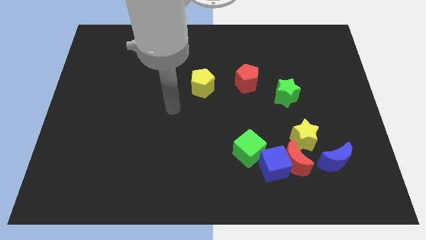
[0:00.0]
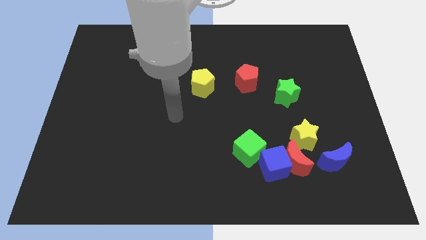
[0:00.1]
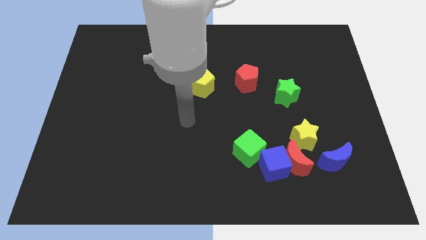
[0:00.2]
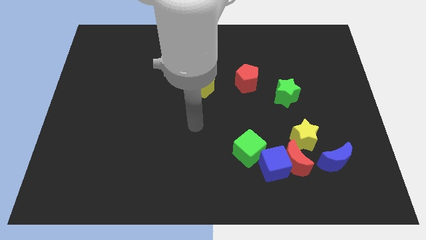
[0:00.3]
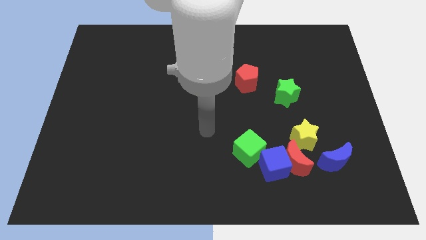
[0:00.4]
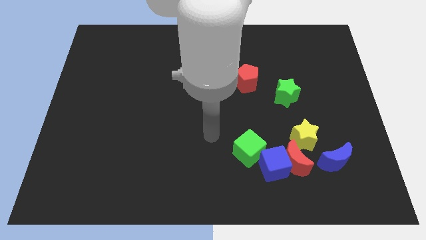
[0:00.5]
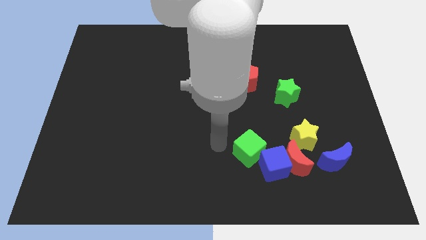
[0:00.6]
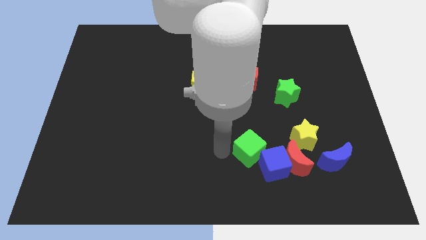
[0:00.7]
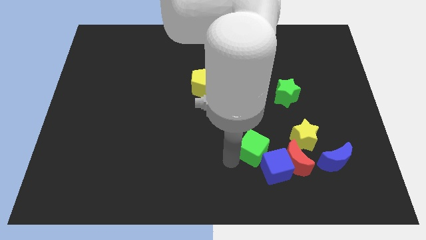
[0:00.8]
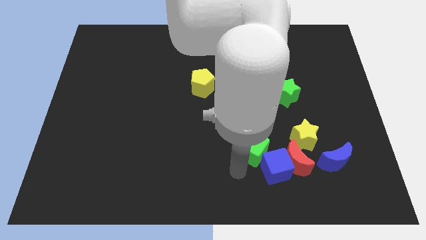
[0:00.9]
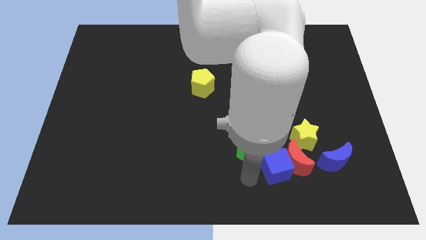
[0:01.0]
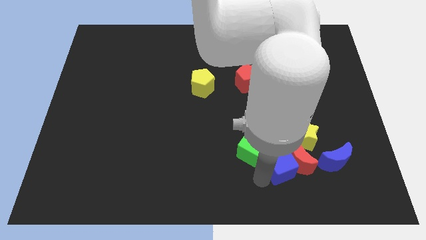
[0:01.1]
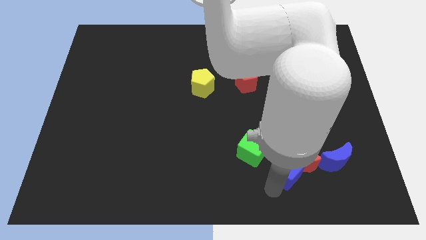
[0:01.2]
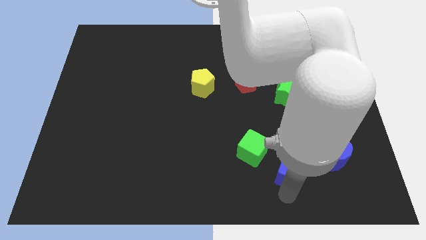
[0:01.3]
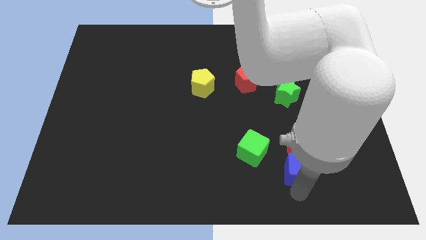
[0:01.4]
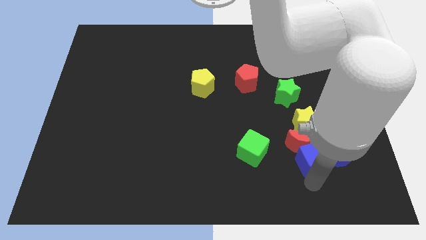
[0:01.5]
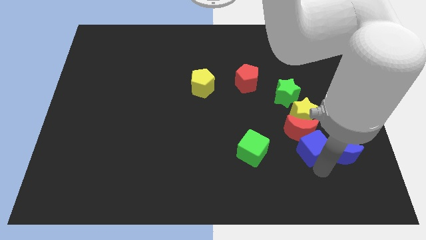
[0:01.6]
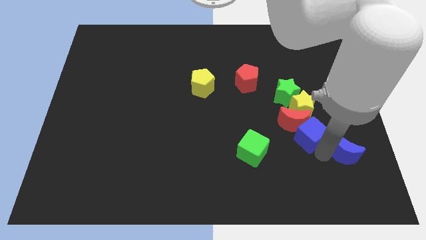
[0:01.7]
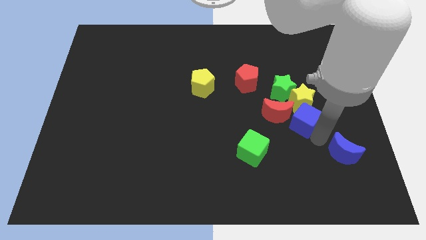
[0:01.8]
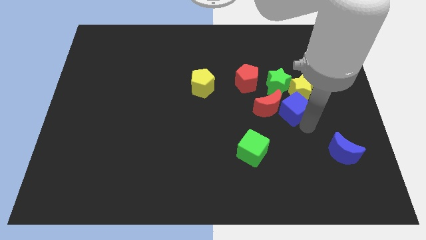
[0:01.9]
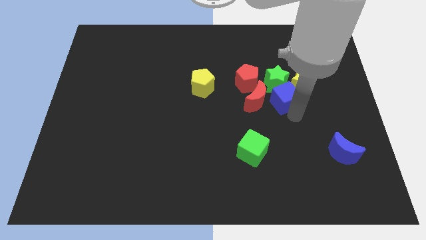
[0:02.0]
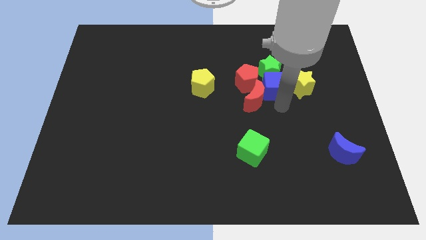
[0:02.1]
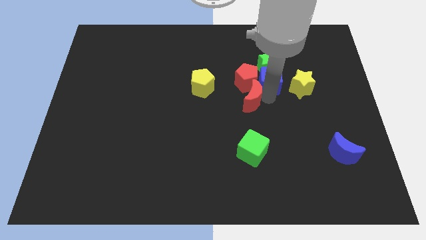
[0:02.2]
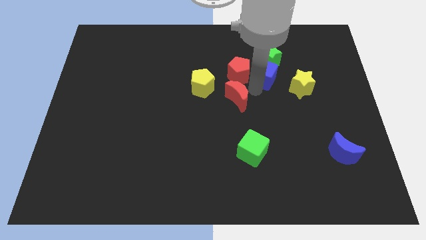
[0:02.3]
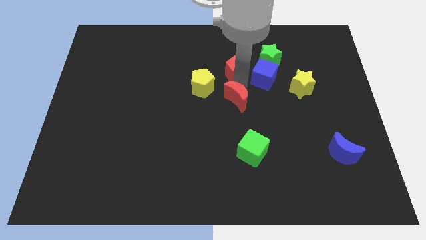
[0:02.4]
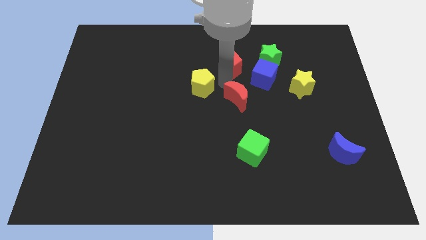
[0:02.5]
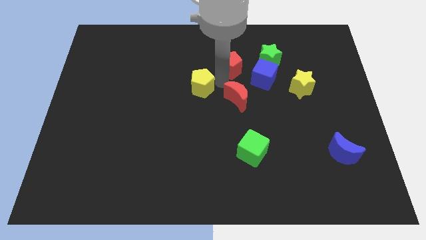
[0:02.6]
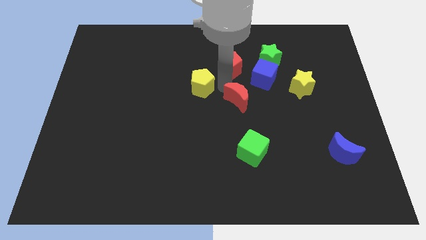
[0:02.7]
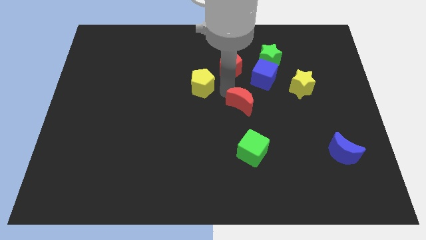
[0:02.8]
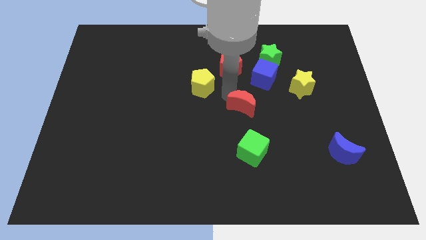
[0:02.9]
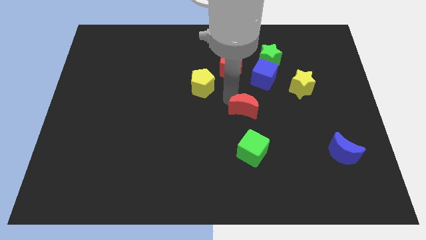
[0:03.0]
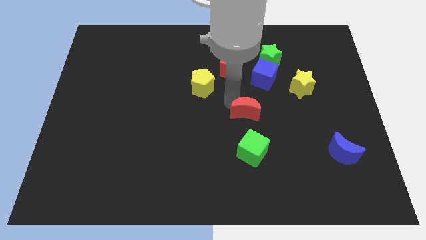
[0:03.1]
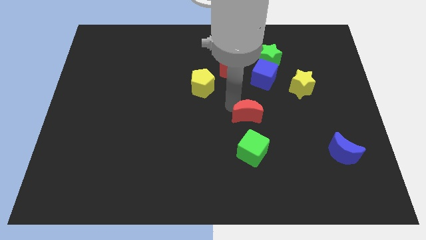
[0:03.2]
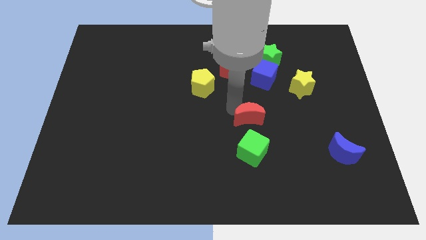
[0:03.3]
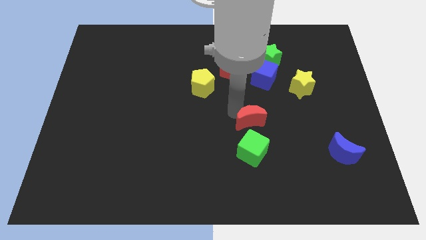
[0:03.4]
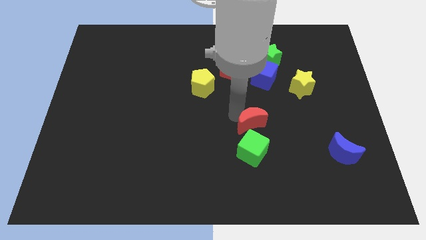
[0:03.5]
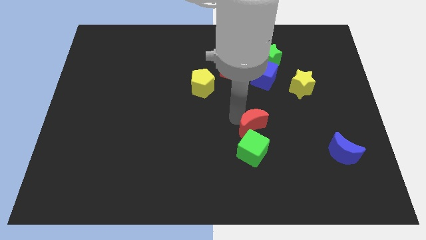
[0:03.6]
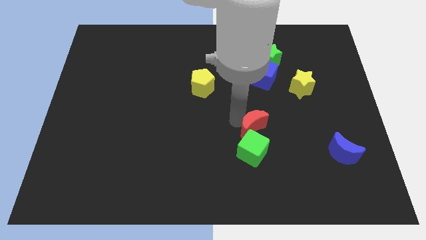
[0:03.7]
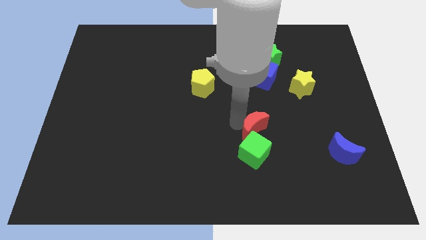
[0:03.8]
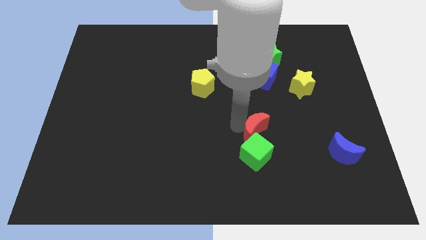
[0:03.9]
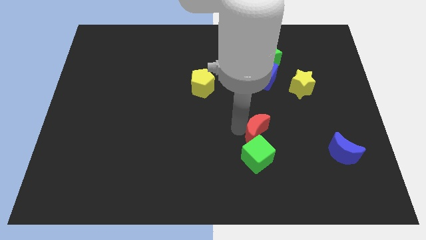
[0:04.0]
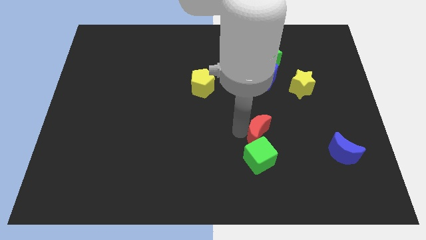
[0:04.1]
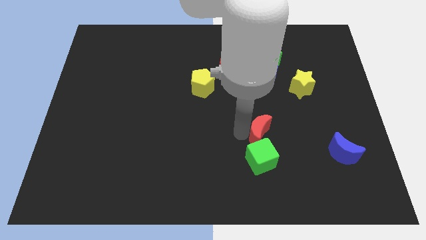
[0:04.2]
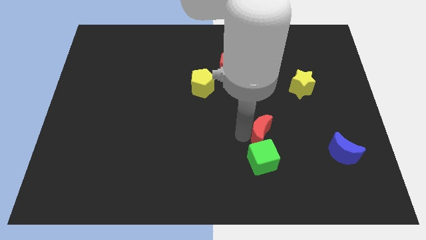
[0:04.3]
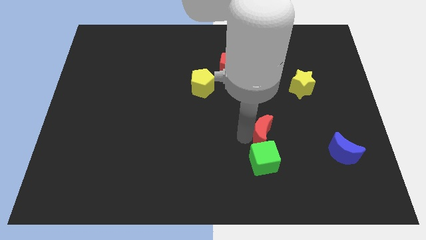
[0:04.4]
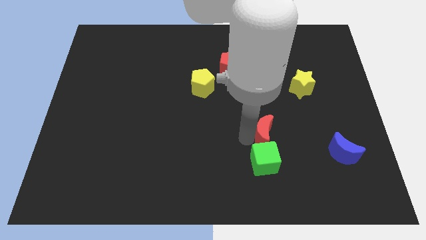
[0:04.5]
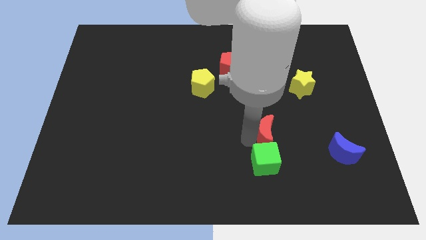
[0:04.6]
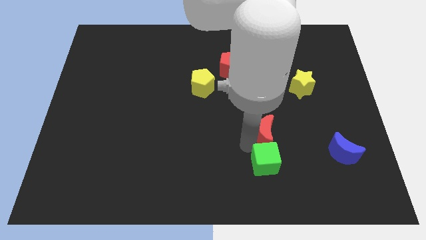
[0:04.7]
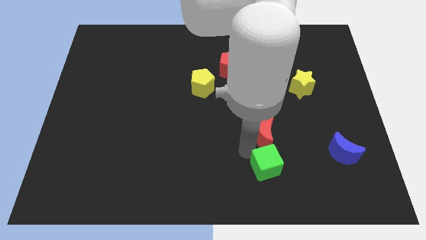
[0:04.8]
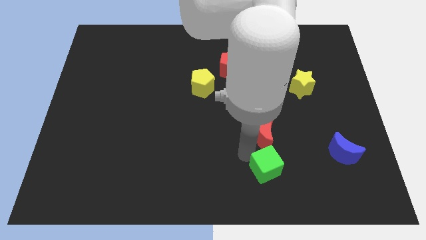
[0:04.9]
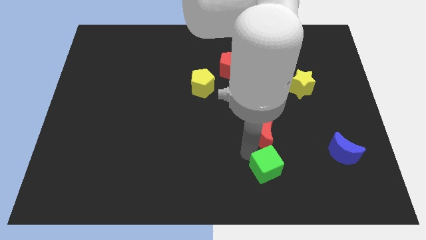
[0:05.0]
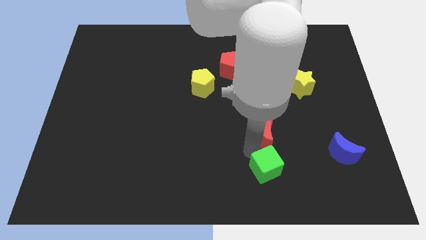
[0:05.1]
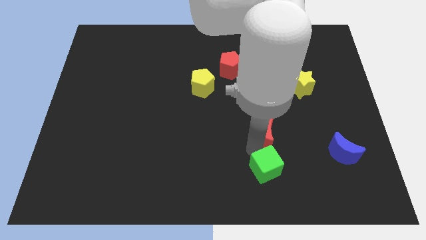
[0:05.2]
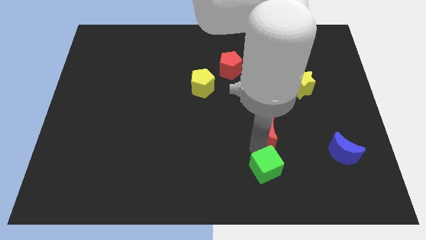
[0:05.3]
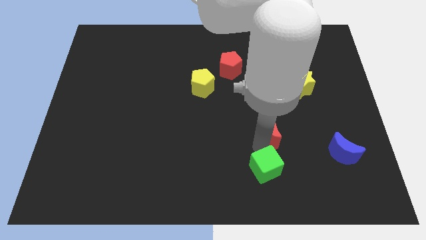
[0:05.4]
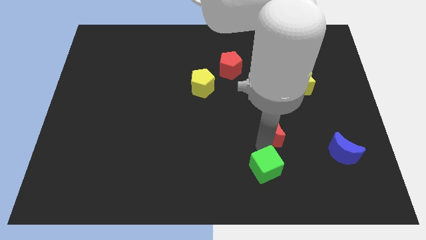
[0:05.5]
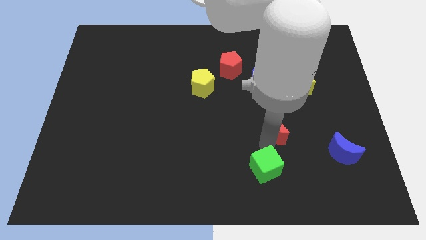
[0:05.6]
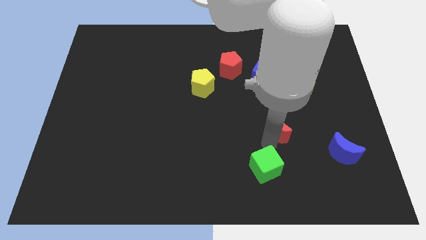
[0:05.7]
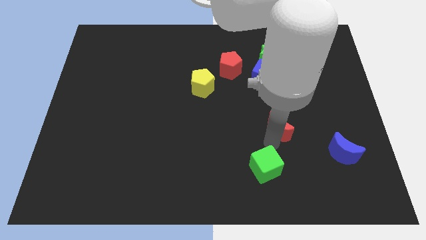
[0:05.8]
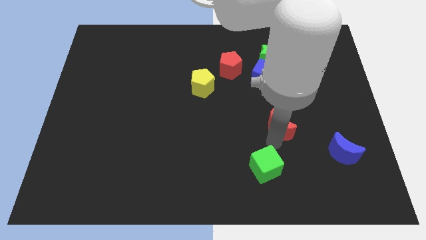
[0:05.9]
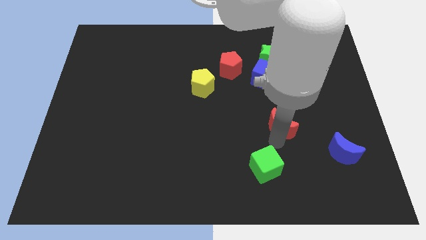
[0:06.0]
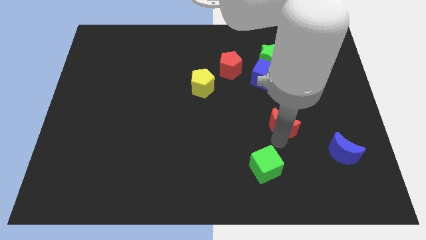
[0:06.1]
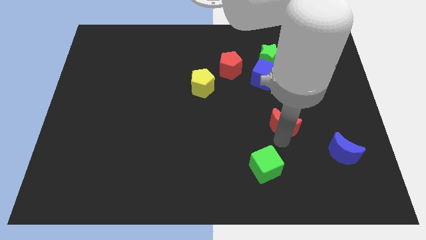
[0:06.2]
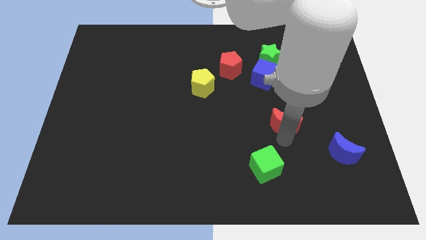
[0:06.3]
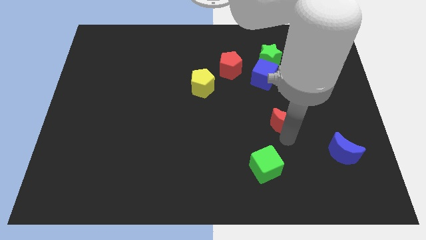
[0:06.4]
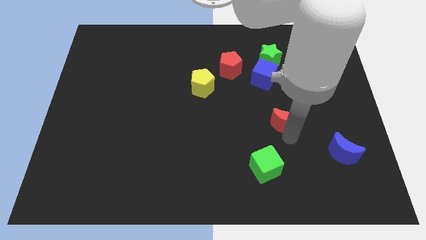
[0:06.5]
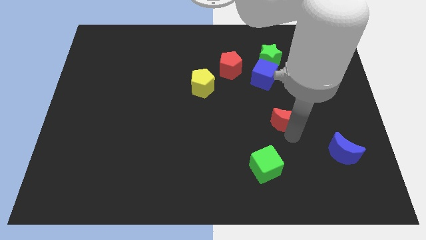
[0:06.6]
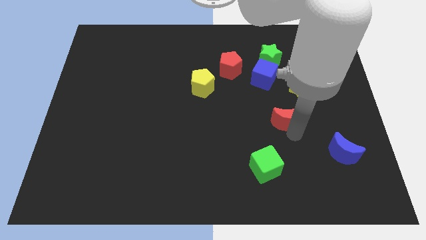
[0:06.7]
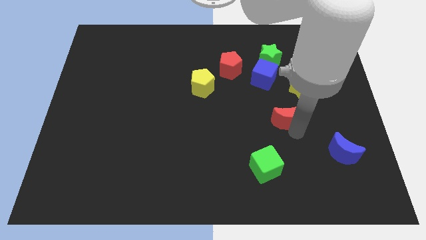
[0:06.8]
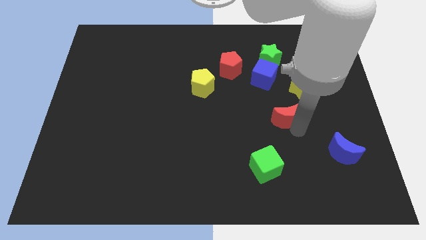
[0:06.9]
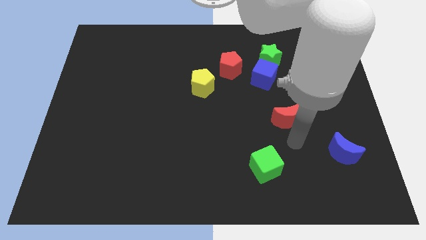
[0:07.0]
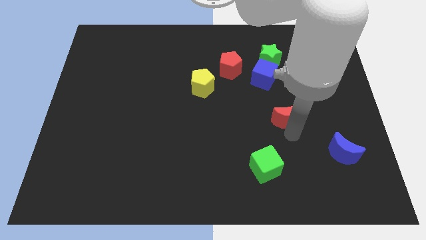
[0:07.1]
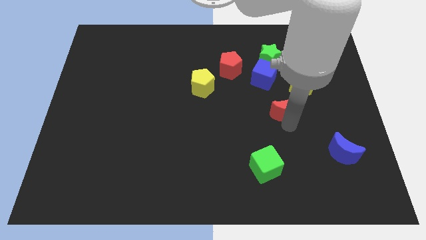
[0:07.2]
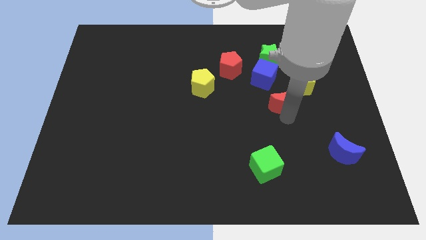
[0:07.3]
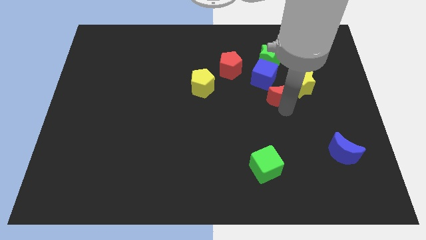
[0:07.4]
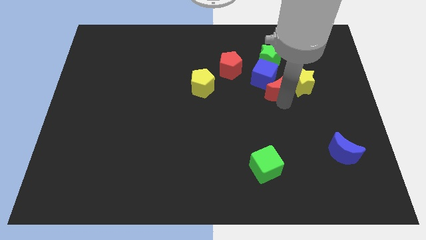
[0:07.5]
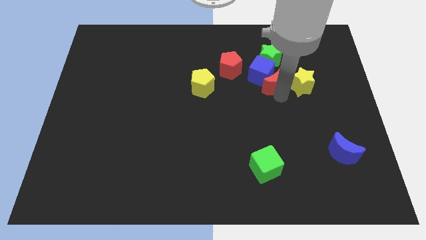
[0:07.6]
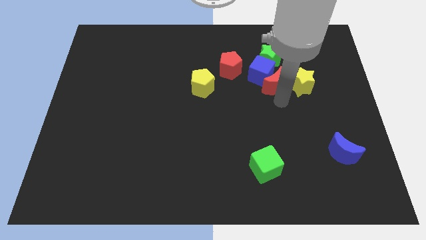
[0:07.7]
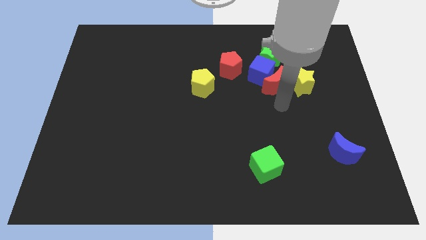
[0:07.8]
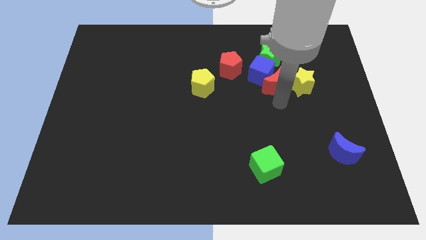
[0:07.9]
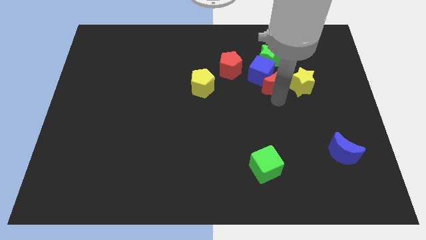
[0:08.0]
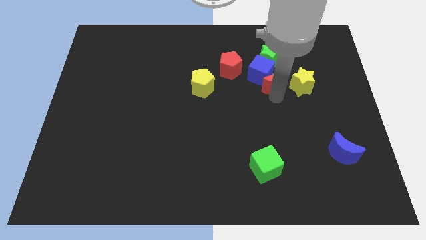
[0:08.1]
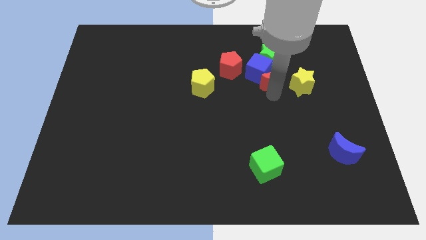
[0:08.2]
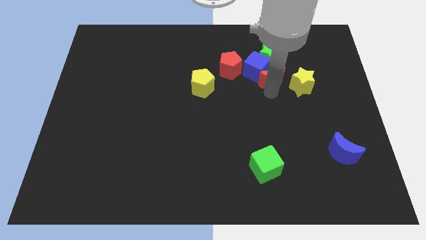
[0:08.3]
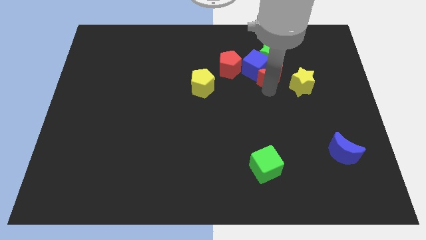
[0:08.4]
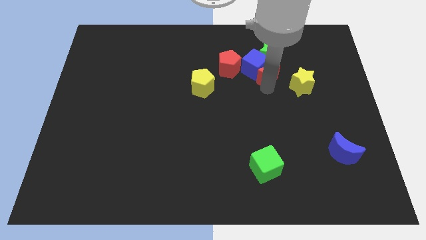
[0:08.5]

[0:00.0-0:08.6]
push the red moon next to the green star
